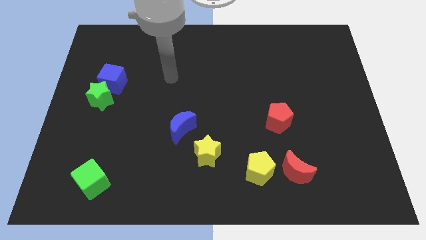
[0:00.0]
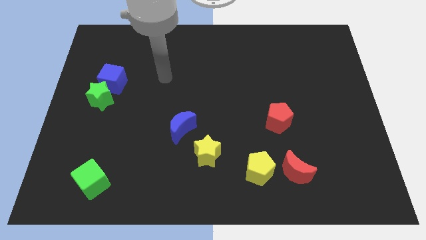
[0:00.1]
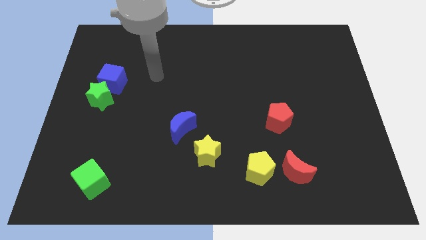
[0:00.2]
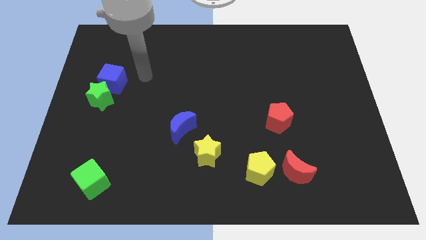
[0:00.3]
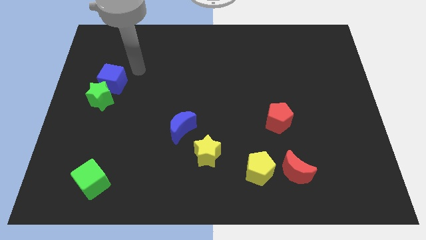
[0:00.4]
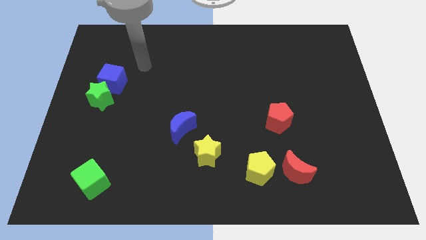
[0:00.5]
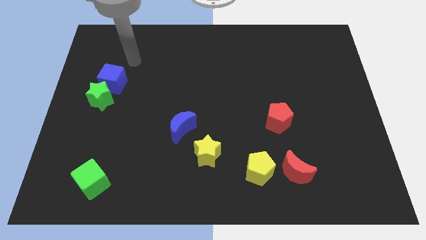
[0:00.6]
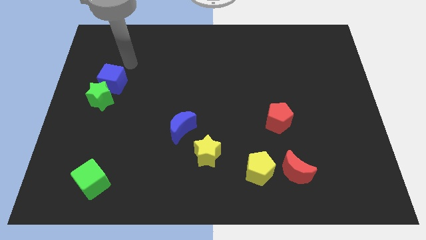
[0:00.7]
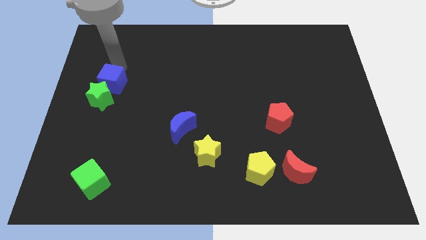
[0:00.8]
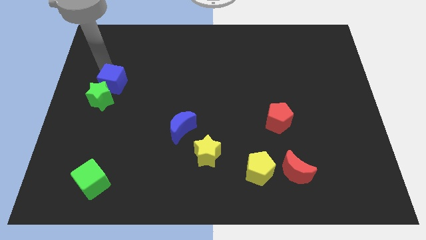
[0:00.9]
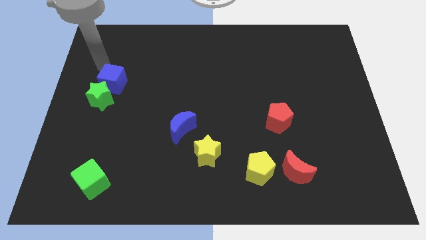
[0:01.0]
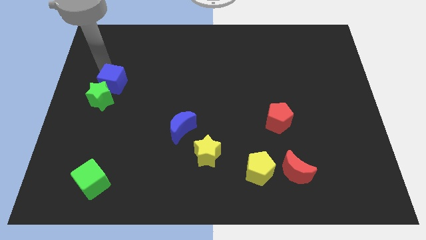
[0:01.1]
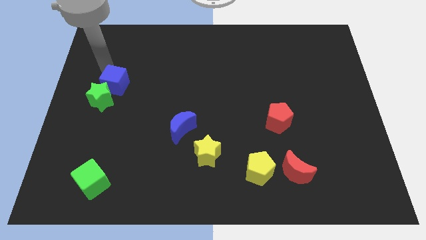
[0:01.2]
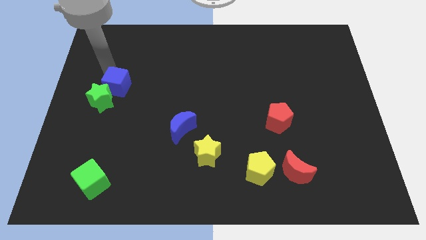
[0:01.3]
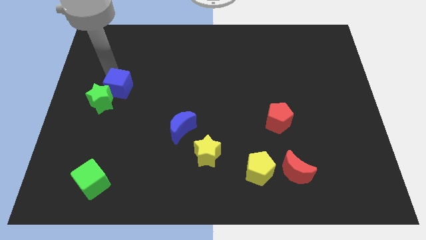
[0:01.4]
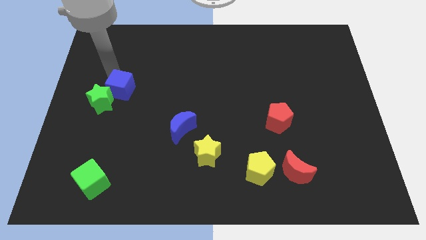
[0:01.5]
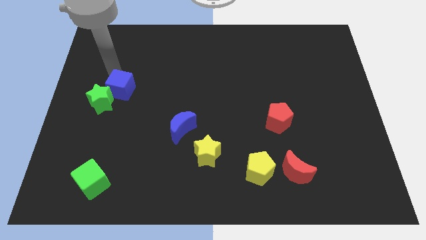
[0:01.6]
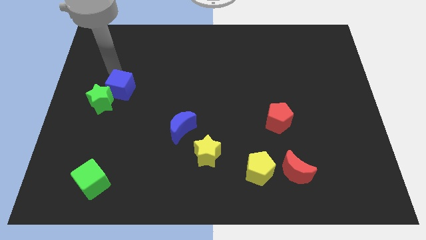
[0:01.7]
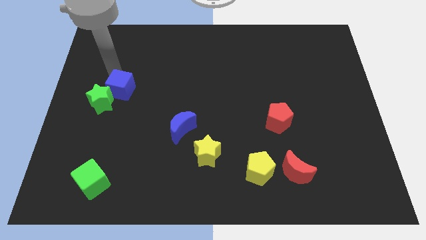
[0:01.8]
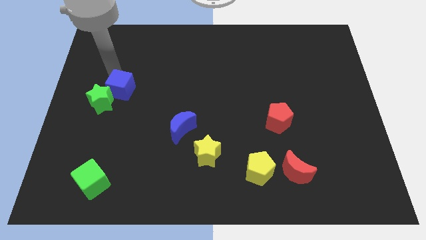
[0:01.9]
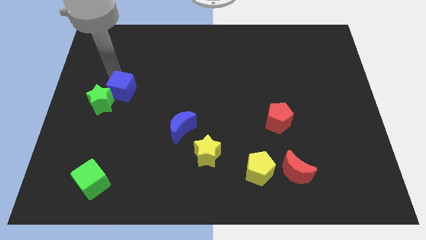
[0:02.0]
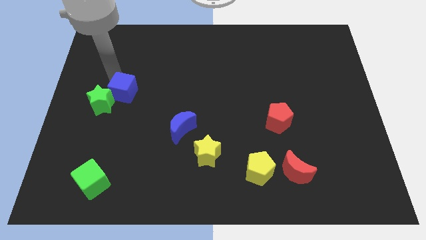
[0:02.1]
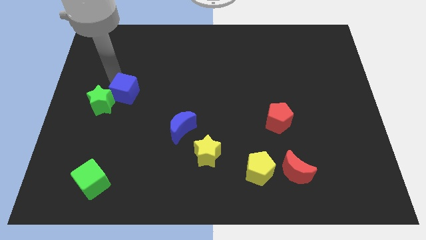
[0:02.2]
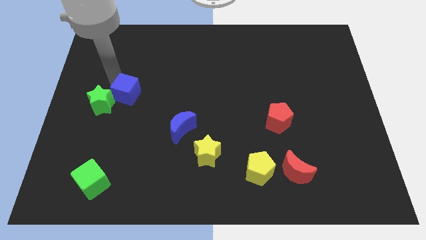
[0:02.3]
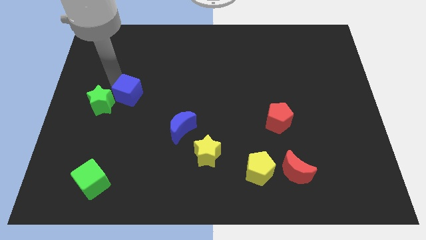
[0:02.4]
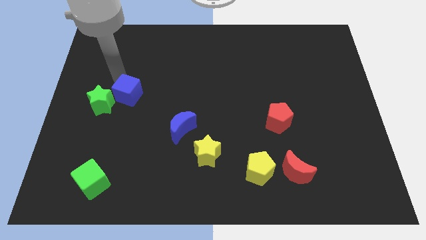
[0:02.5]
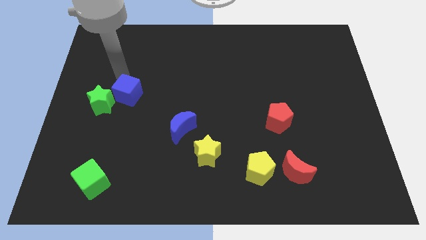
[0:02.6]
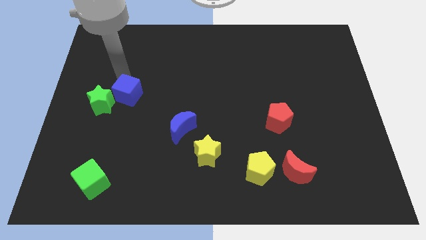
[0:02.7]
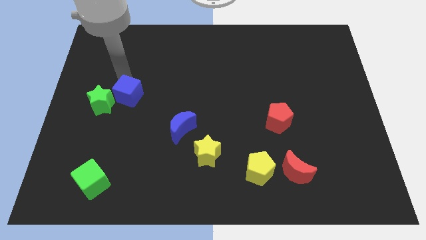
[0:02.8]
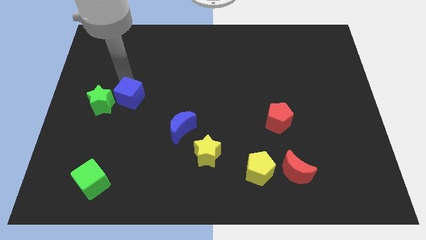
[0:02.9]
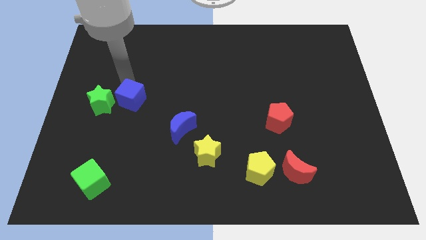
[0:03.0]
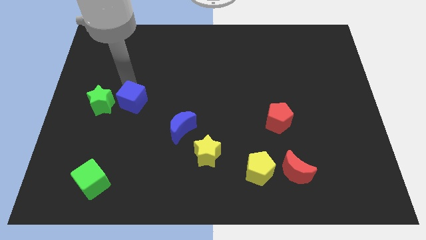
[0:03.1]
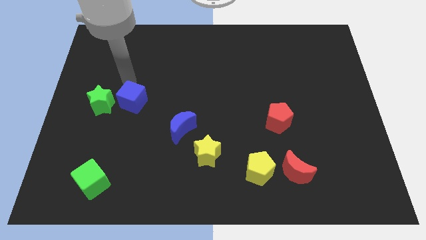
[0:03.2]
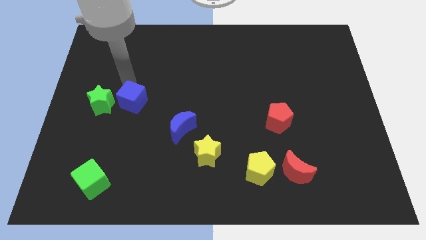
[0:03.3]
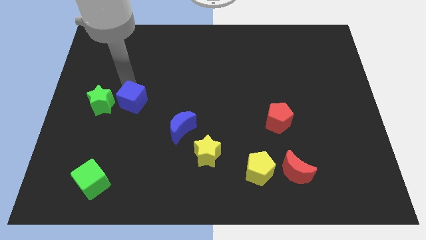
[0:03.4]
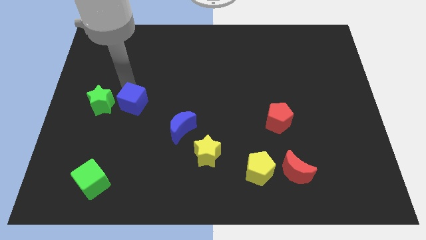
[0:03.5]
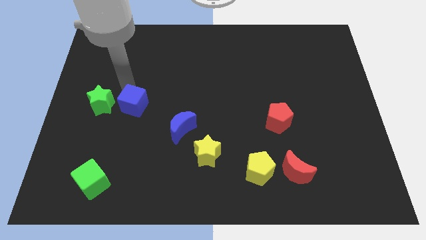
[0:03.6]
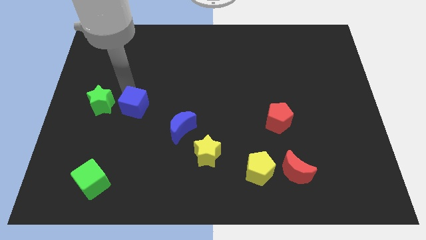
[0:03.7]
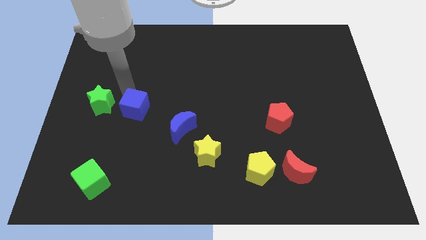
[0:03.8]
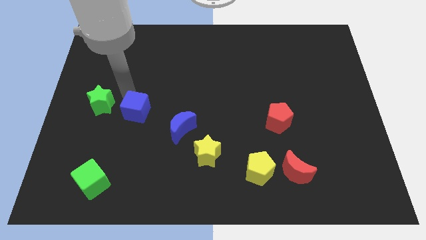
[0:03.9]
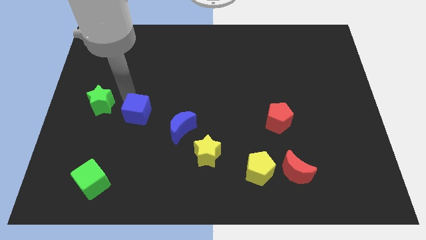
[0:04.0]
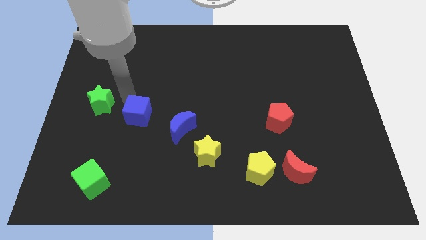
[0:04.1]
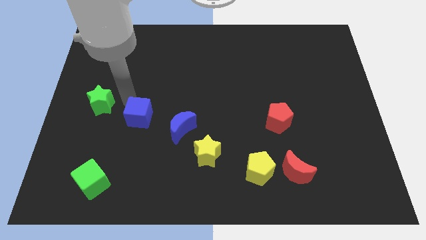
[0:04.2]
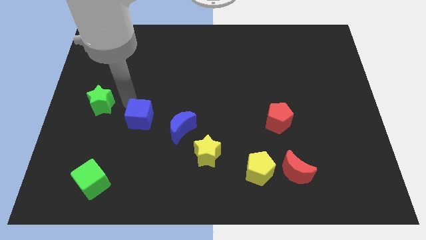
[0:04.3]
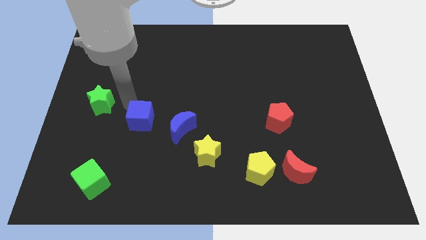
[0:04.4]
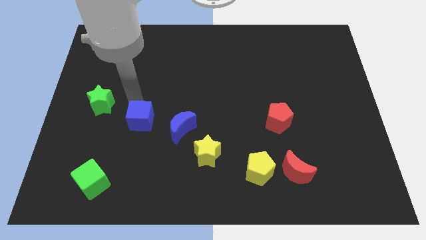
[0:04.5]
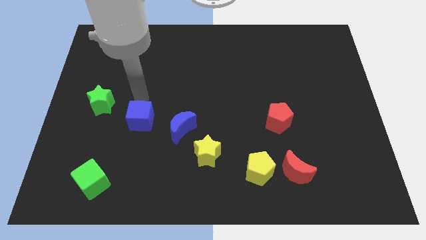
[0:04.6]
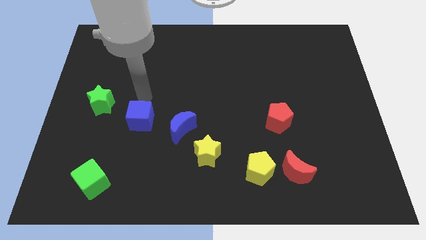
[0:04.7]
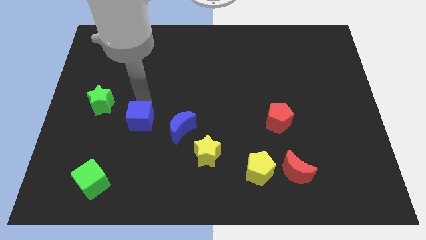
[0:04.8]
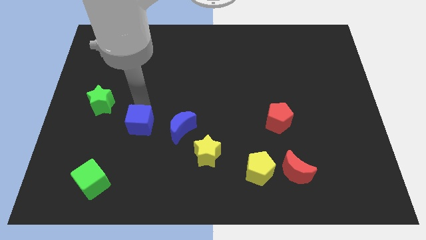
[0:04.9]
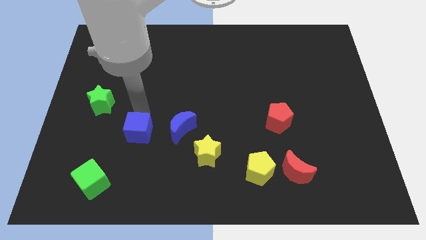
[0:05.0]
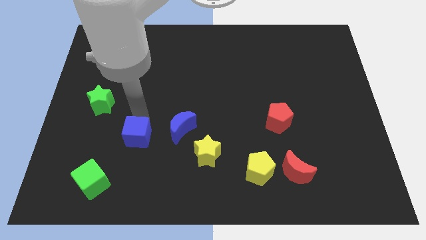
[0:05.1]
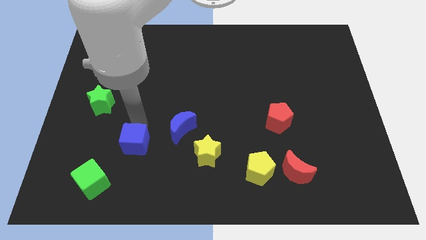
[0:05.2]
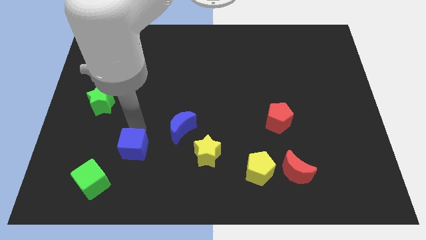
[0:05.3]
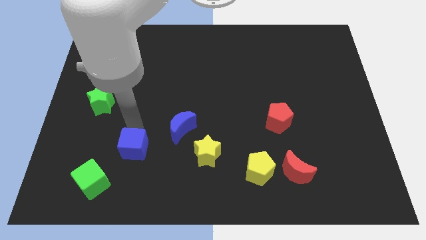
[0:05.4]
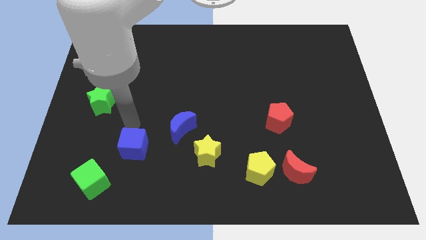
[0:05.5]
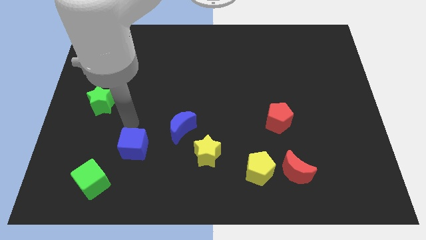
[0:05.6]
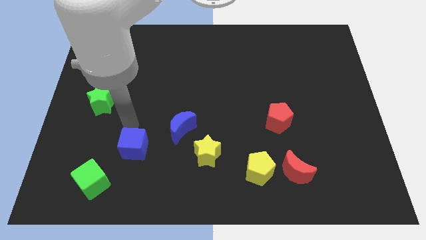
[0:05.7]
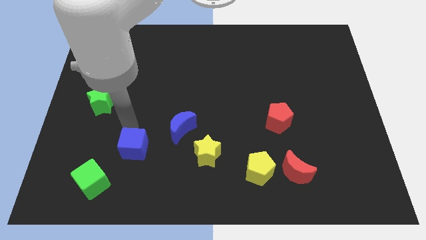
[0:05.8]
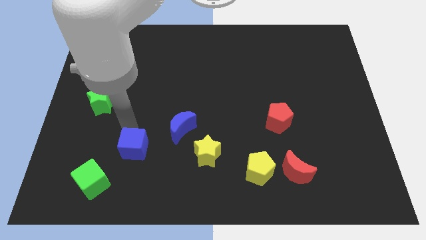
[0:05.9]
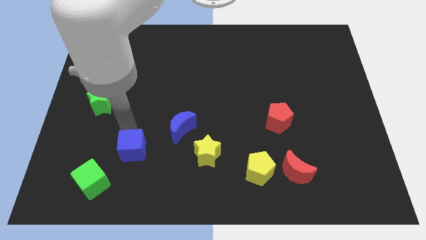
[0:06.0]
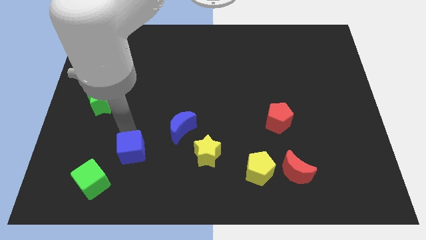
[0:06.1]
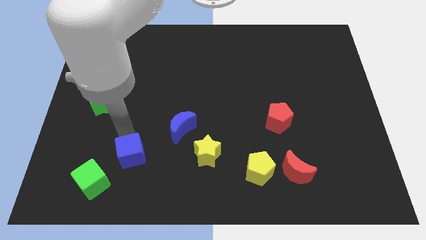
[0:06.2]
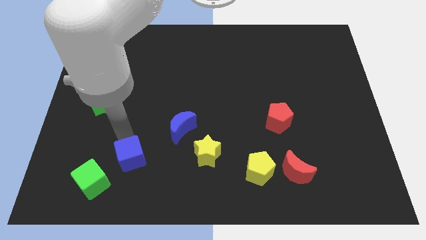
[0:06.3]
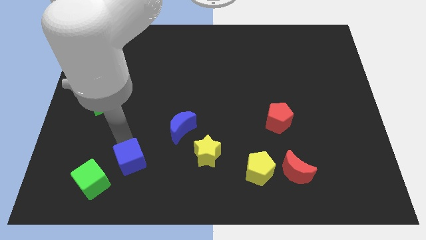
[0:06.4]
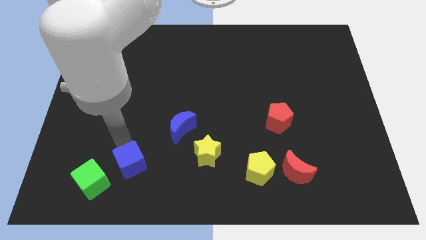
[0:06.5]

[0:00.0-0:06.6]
move the blue cube right of the green cube
